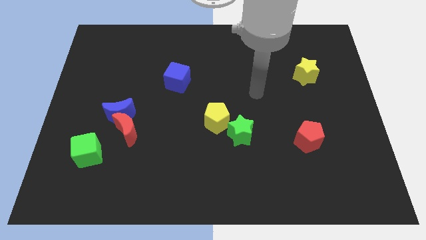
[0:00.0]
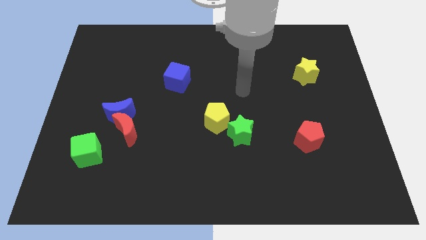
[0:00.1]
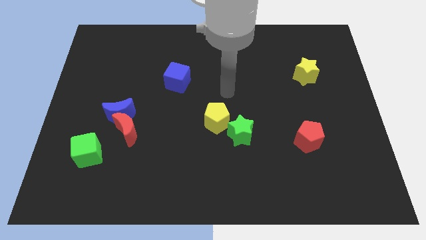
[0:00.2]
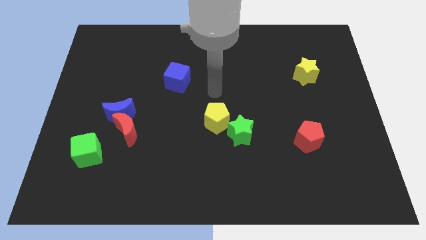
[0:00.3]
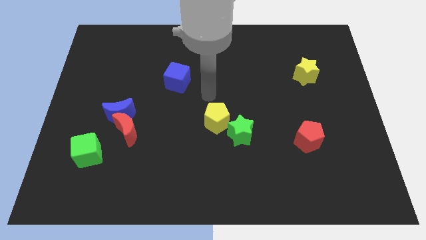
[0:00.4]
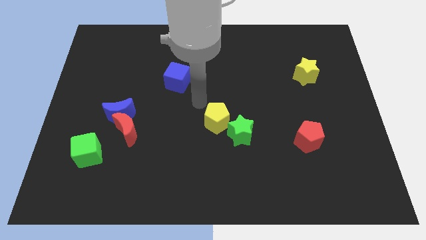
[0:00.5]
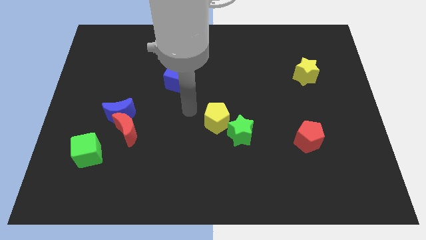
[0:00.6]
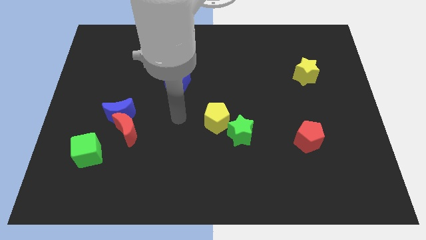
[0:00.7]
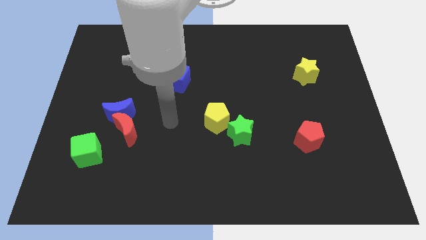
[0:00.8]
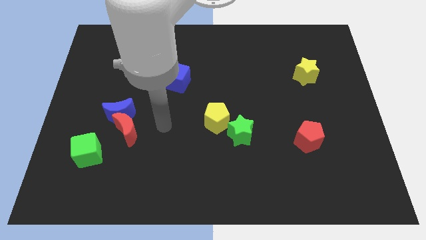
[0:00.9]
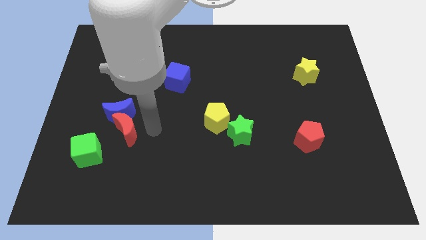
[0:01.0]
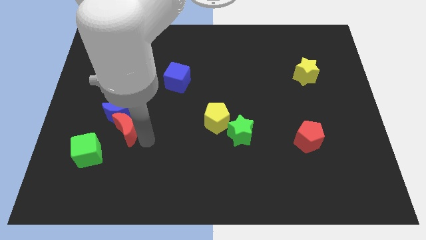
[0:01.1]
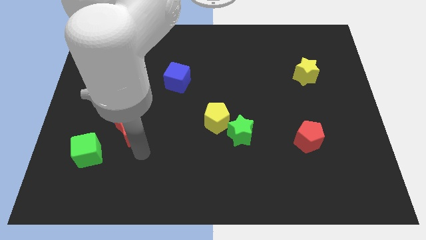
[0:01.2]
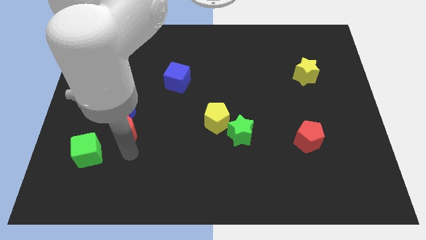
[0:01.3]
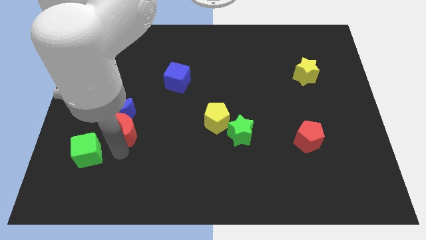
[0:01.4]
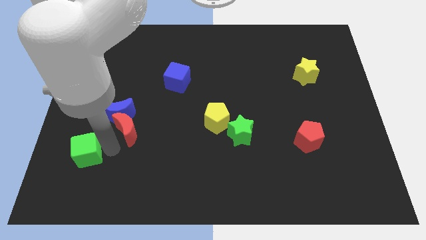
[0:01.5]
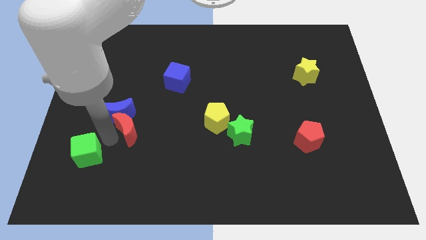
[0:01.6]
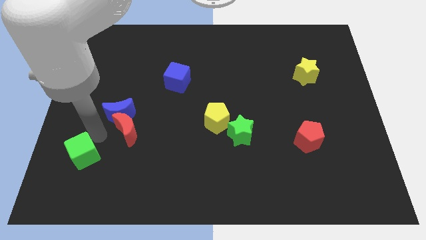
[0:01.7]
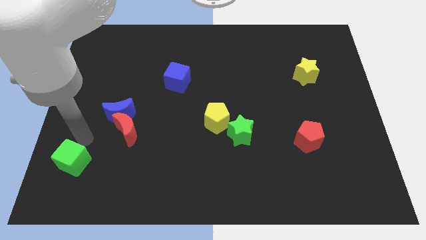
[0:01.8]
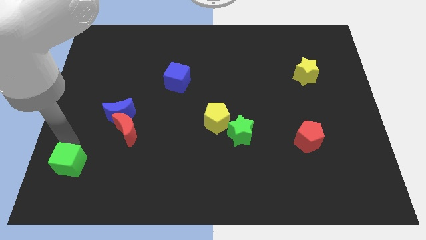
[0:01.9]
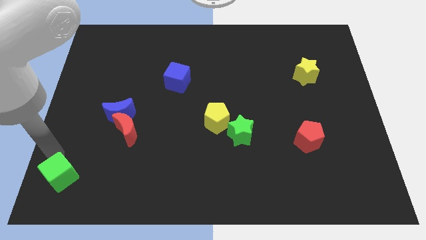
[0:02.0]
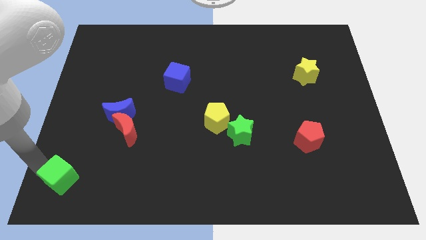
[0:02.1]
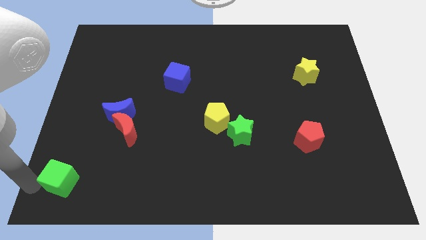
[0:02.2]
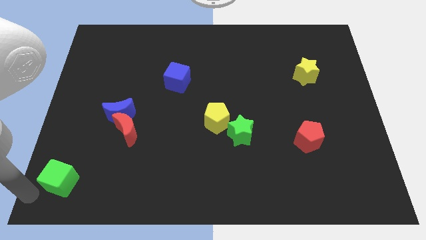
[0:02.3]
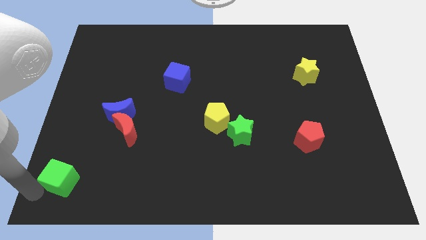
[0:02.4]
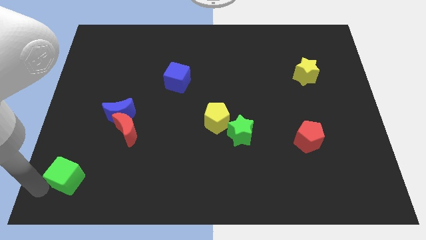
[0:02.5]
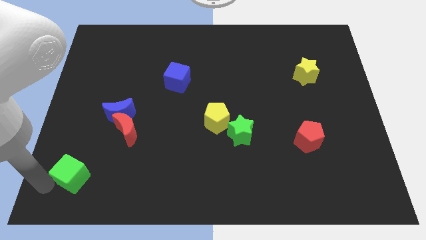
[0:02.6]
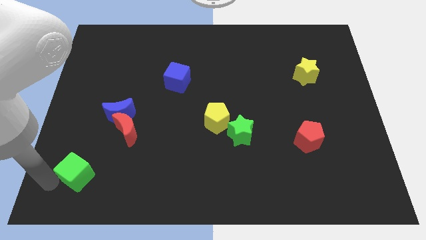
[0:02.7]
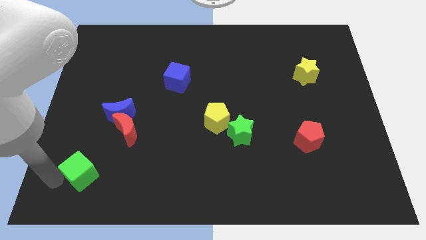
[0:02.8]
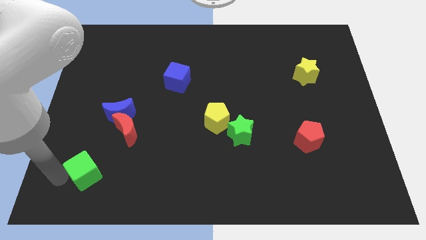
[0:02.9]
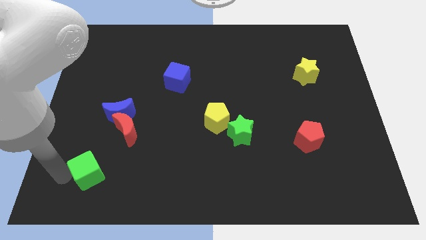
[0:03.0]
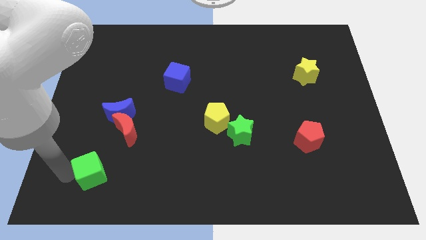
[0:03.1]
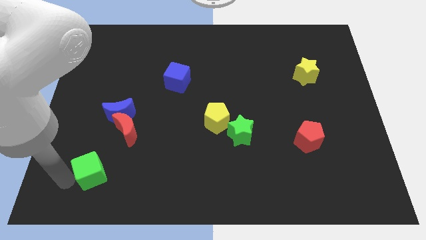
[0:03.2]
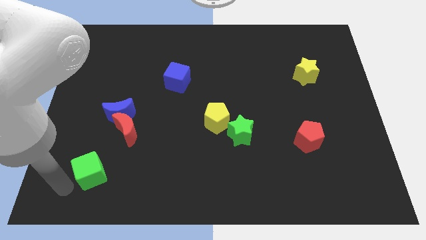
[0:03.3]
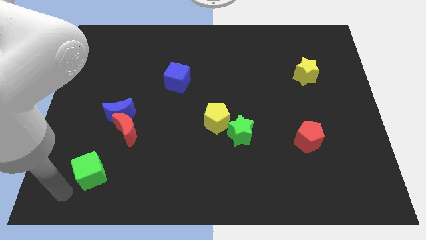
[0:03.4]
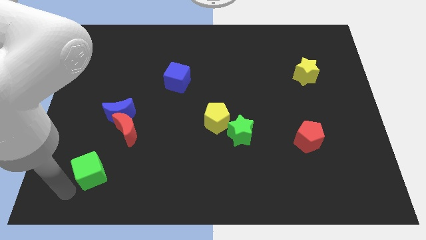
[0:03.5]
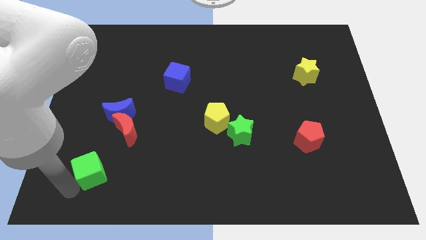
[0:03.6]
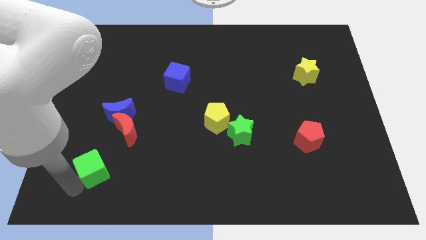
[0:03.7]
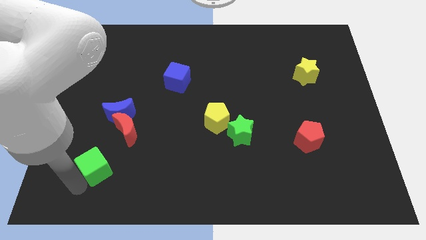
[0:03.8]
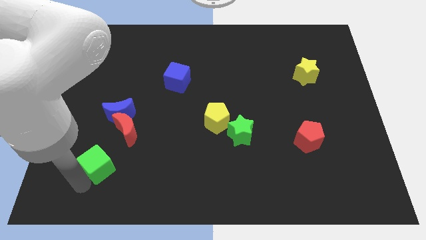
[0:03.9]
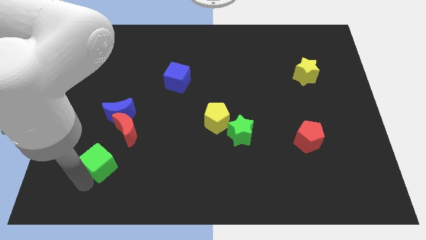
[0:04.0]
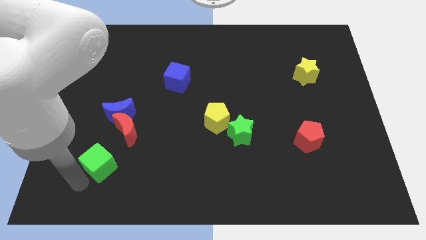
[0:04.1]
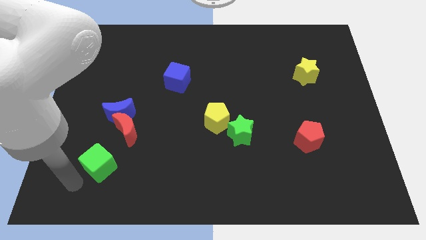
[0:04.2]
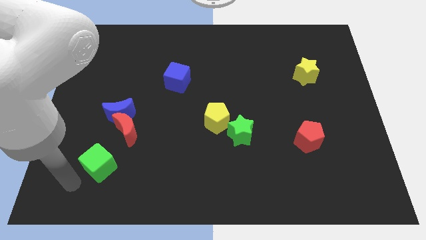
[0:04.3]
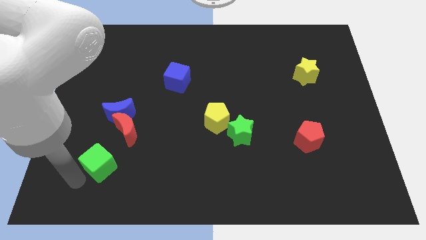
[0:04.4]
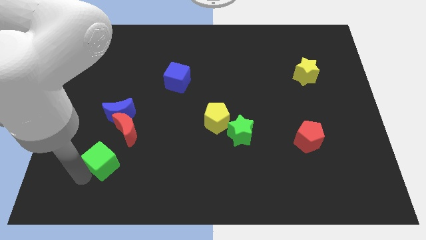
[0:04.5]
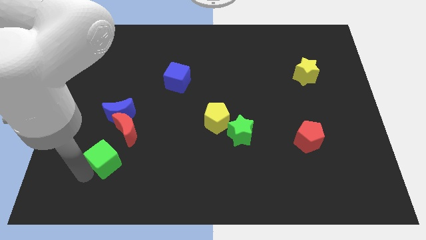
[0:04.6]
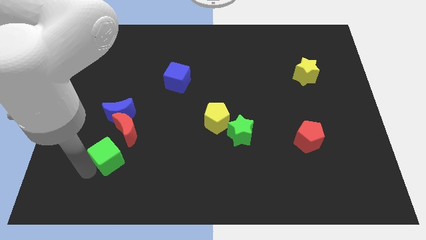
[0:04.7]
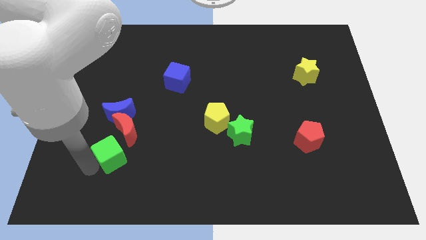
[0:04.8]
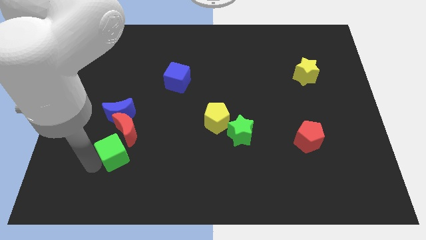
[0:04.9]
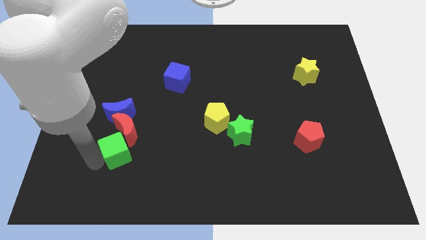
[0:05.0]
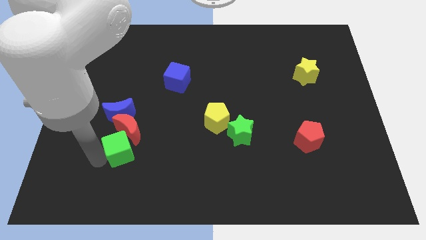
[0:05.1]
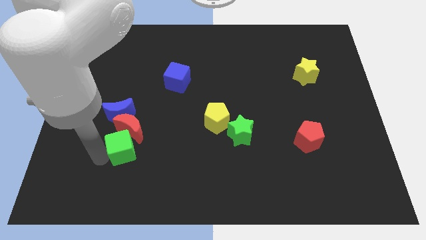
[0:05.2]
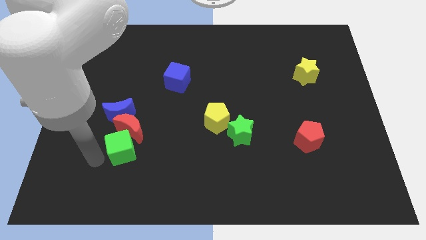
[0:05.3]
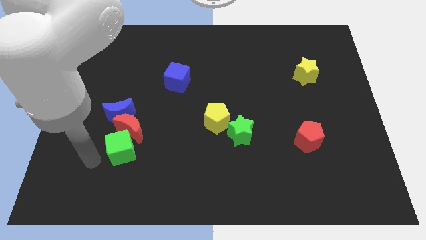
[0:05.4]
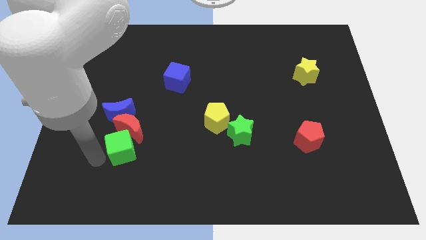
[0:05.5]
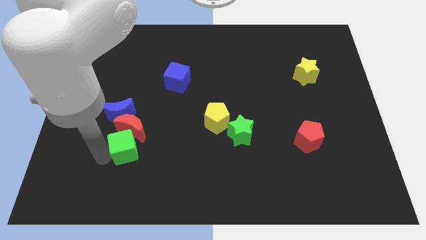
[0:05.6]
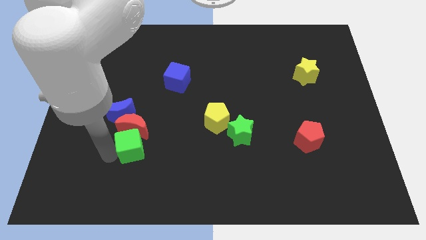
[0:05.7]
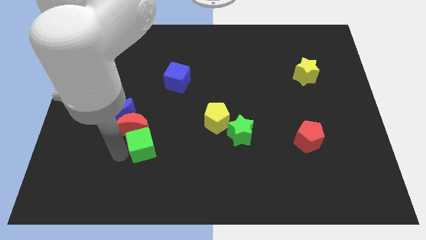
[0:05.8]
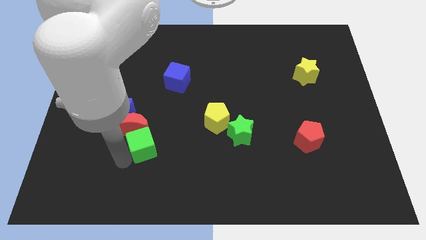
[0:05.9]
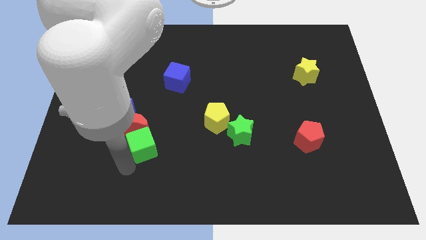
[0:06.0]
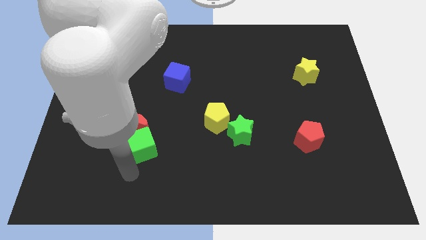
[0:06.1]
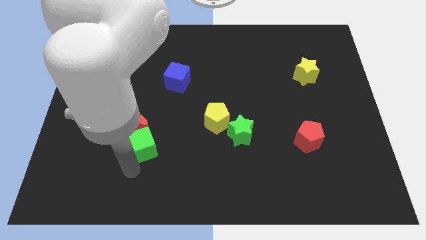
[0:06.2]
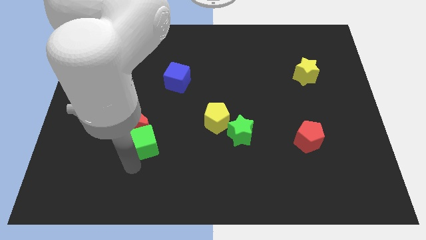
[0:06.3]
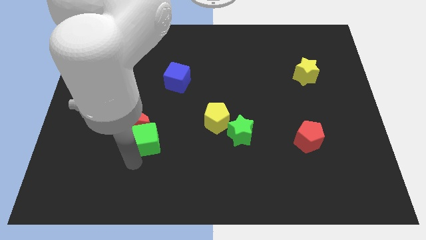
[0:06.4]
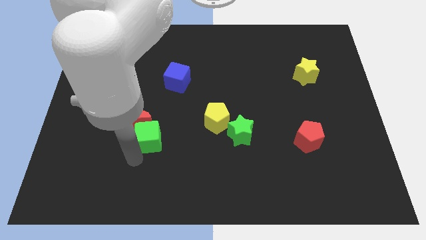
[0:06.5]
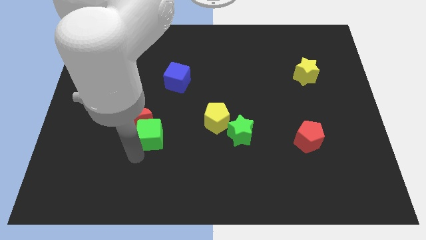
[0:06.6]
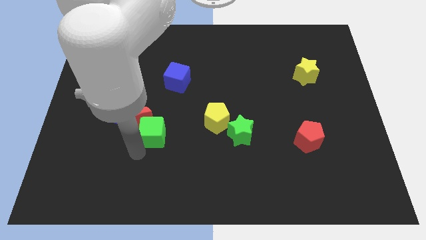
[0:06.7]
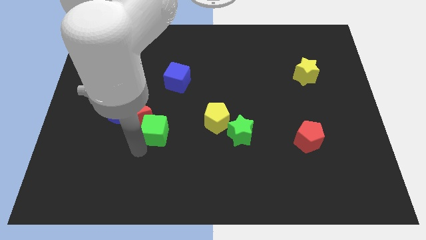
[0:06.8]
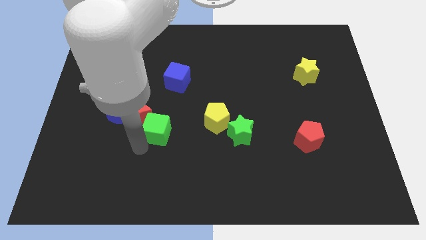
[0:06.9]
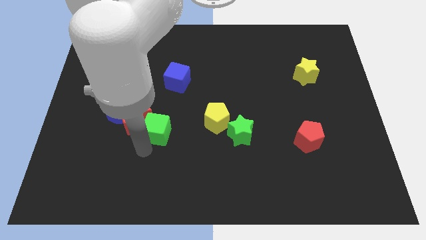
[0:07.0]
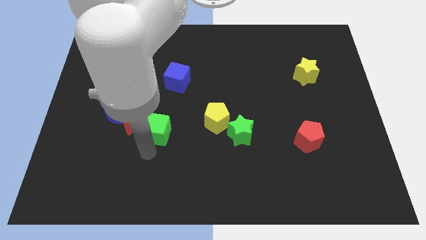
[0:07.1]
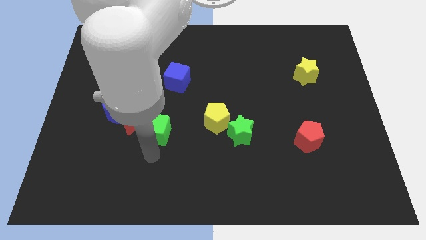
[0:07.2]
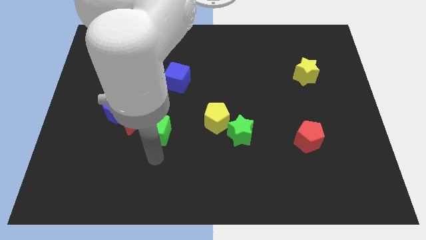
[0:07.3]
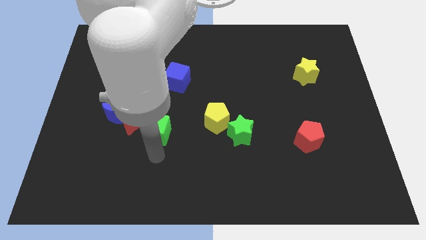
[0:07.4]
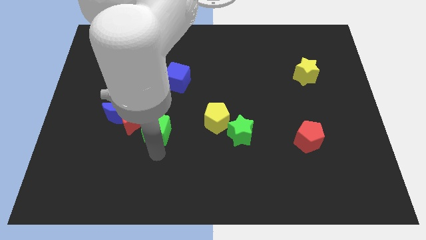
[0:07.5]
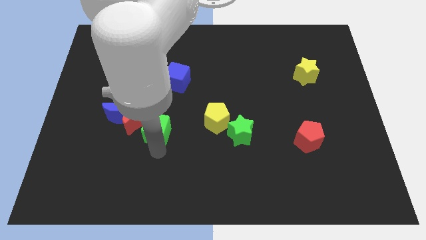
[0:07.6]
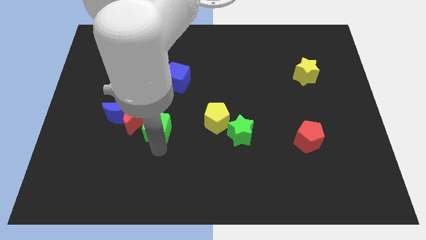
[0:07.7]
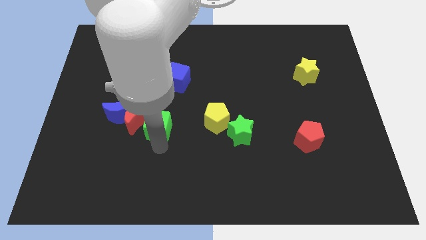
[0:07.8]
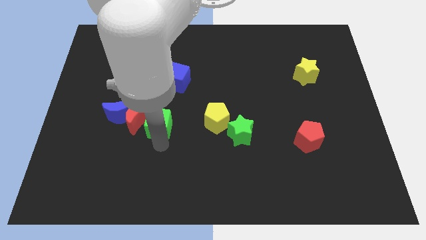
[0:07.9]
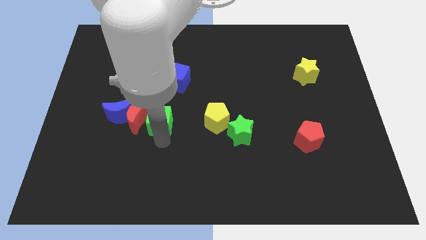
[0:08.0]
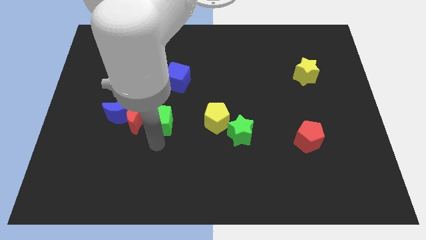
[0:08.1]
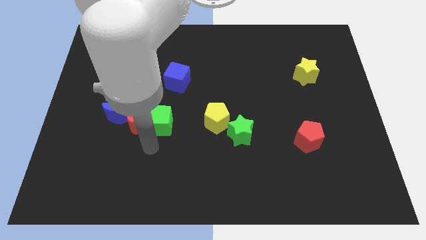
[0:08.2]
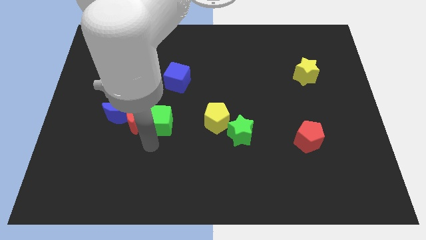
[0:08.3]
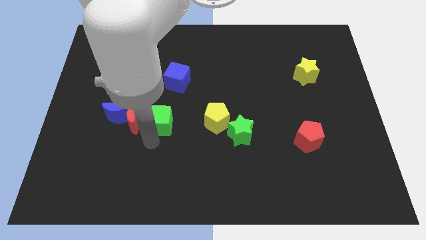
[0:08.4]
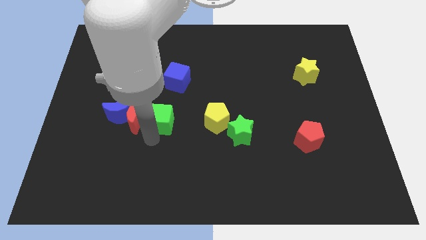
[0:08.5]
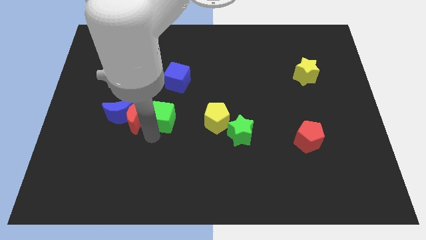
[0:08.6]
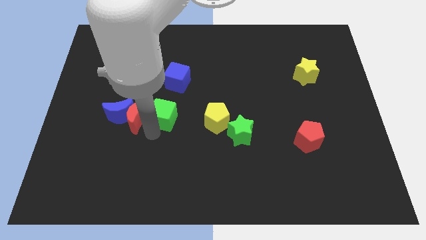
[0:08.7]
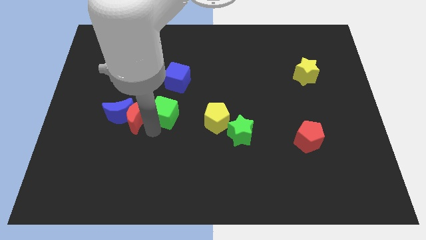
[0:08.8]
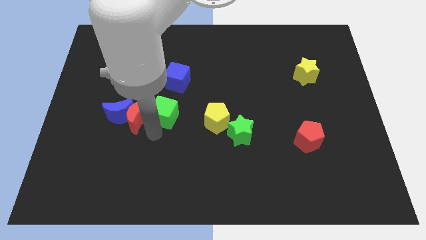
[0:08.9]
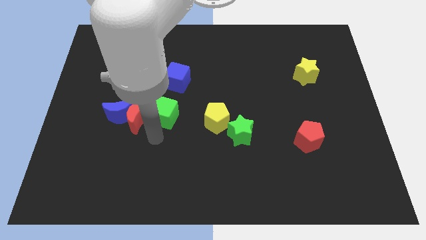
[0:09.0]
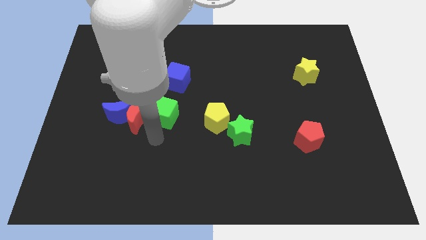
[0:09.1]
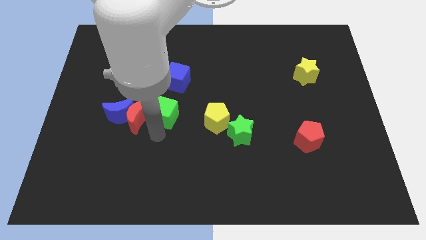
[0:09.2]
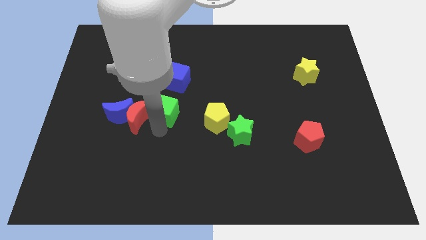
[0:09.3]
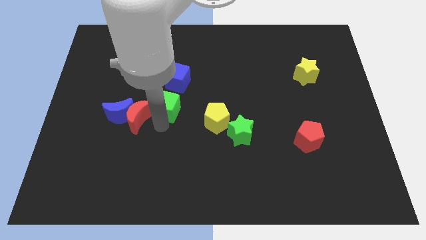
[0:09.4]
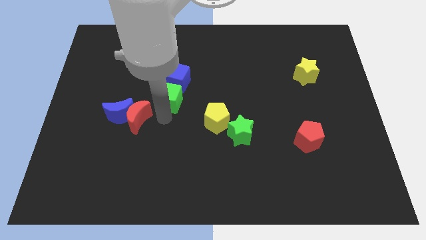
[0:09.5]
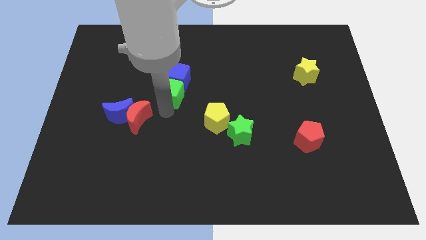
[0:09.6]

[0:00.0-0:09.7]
slide the green cube close to the blue cube
